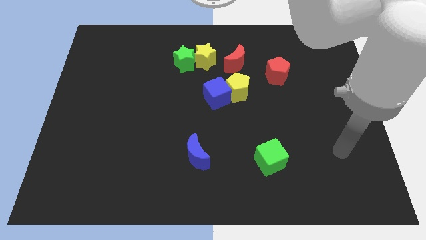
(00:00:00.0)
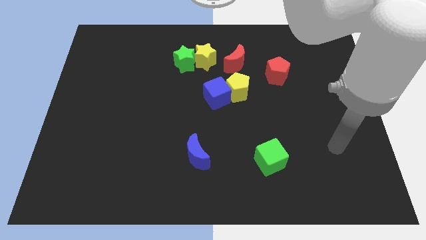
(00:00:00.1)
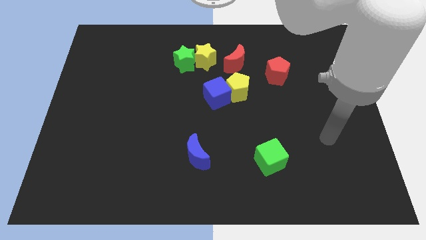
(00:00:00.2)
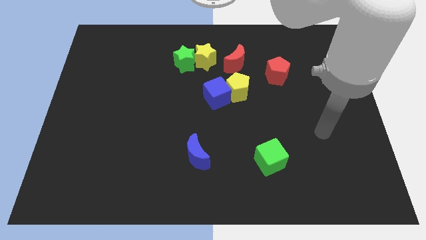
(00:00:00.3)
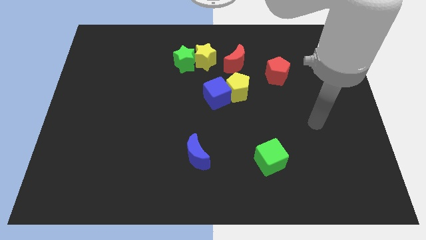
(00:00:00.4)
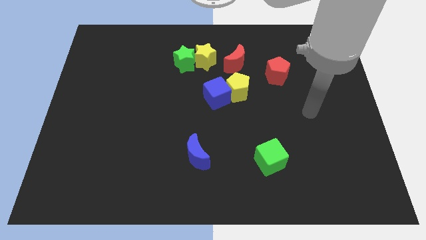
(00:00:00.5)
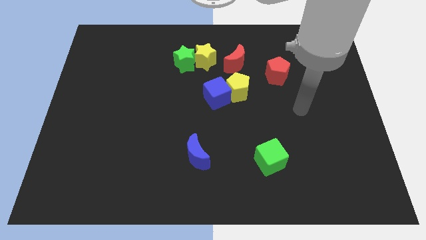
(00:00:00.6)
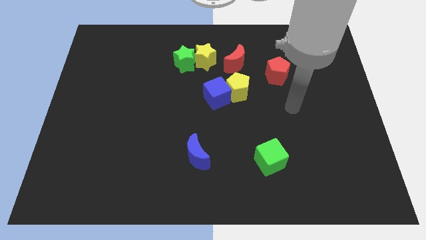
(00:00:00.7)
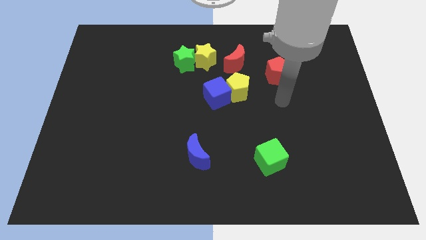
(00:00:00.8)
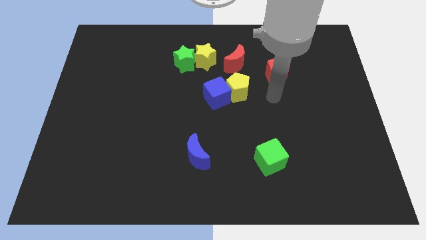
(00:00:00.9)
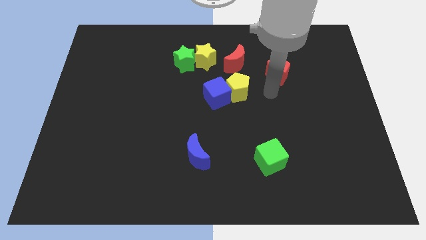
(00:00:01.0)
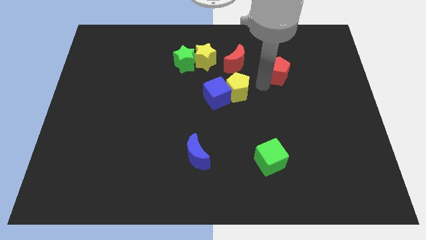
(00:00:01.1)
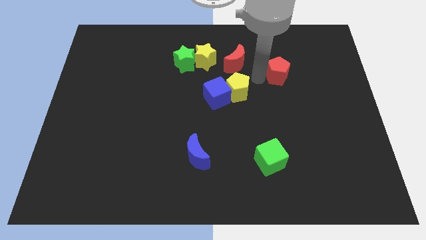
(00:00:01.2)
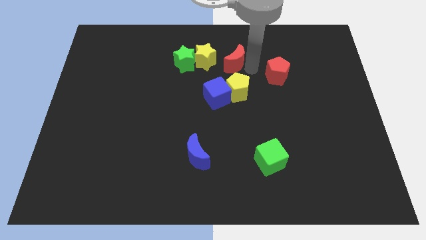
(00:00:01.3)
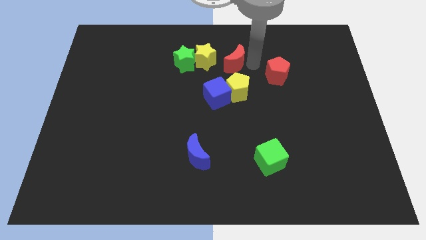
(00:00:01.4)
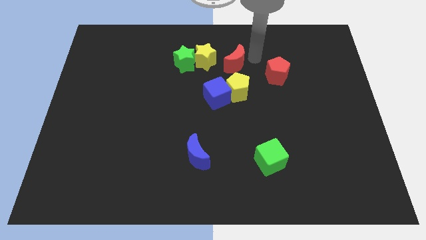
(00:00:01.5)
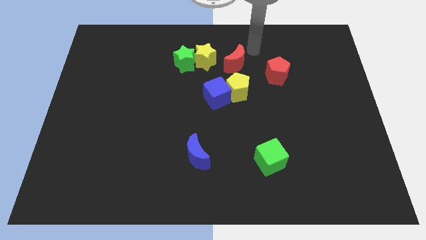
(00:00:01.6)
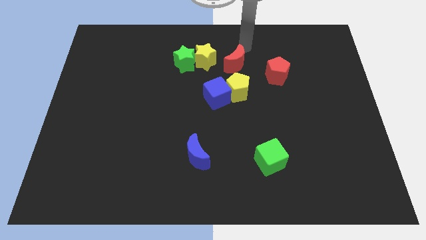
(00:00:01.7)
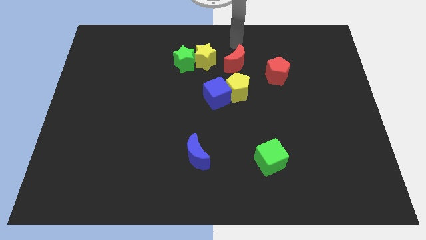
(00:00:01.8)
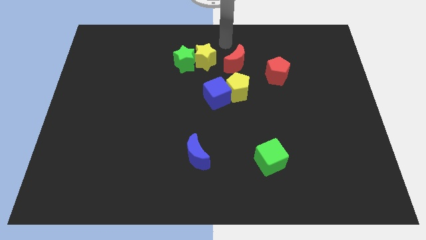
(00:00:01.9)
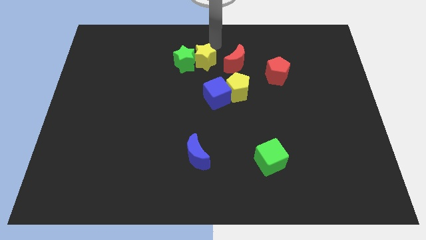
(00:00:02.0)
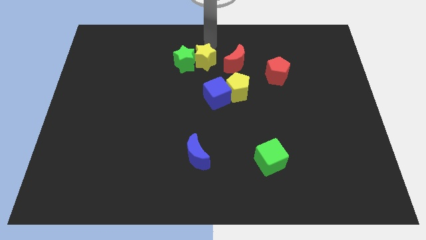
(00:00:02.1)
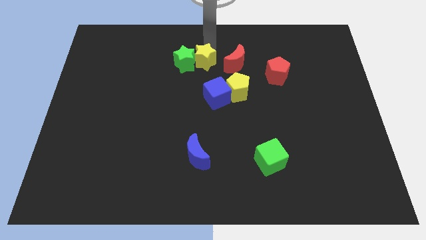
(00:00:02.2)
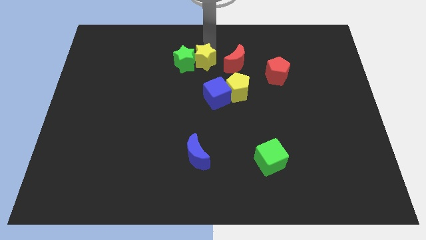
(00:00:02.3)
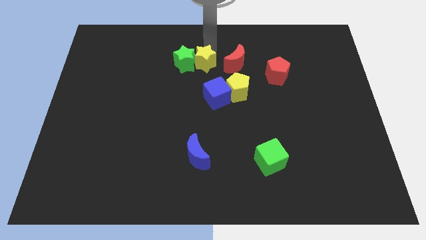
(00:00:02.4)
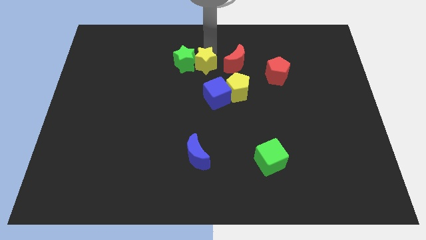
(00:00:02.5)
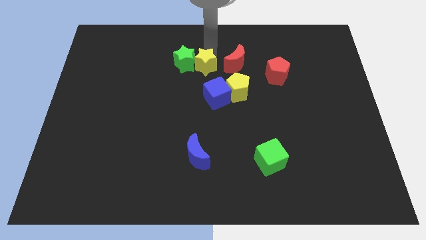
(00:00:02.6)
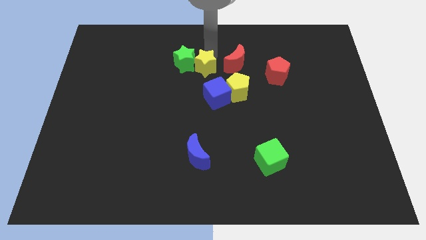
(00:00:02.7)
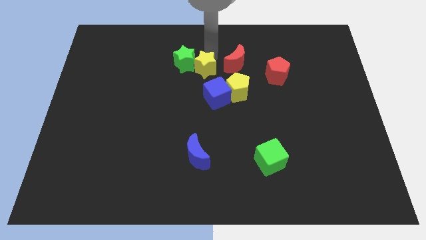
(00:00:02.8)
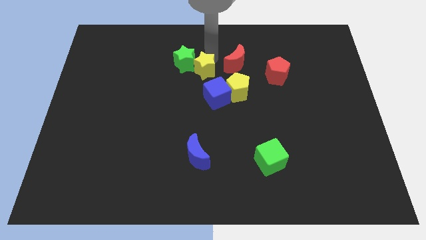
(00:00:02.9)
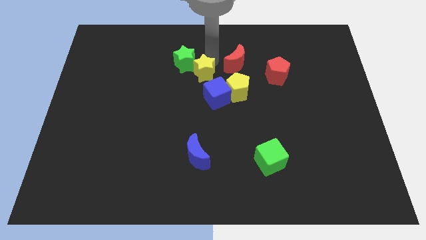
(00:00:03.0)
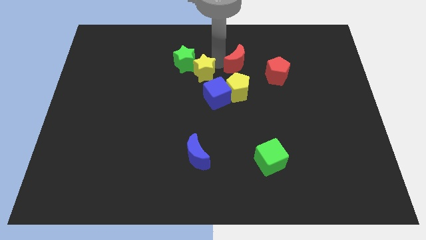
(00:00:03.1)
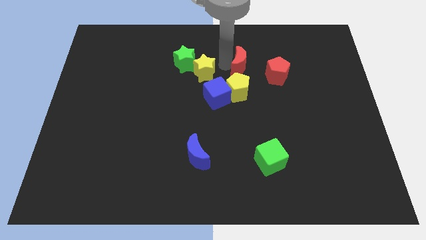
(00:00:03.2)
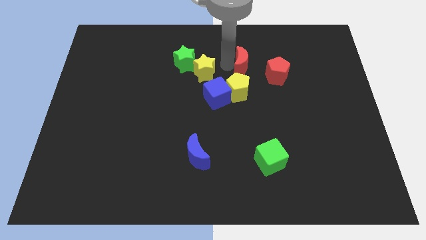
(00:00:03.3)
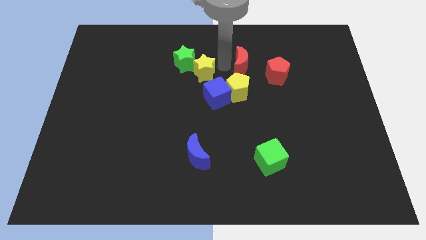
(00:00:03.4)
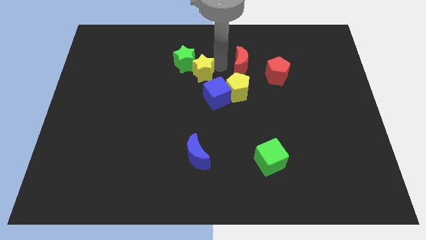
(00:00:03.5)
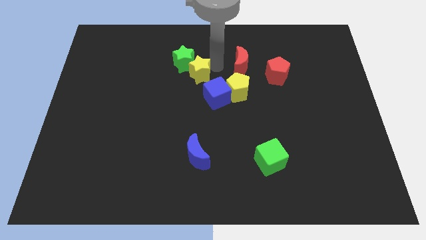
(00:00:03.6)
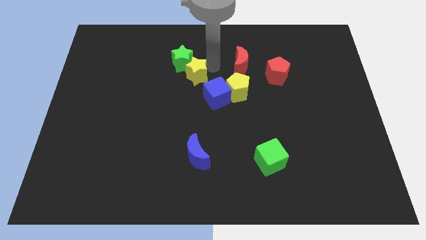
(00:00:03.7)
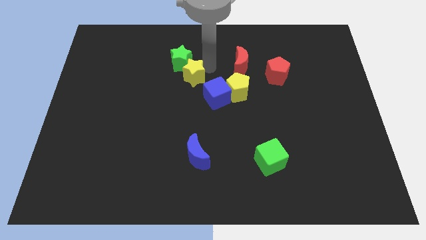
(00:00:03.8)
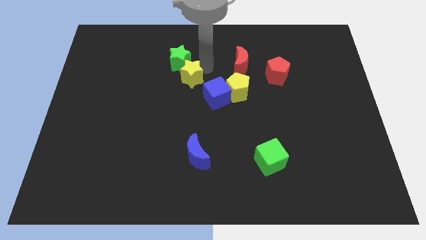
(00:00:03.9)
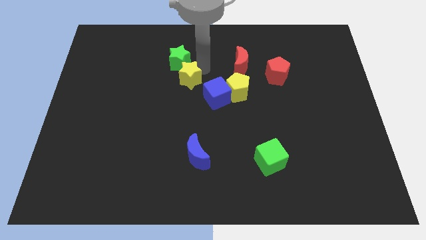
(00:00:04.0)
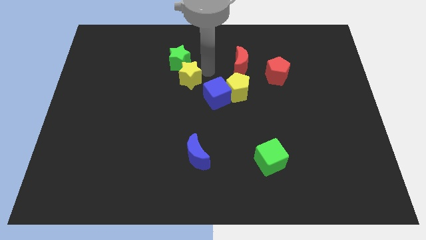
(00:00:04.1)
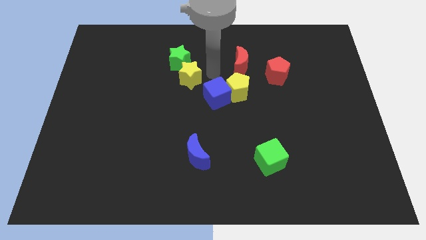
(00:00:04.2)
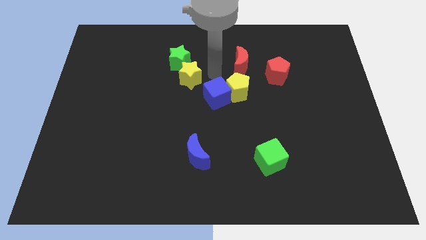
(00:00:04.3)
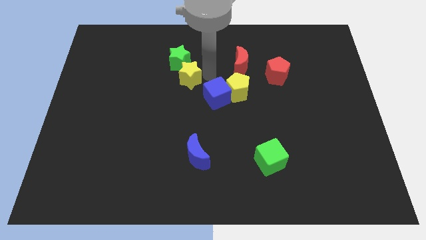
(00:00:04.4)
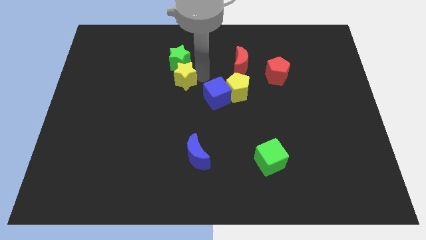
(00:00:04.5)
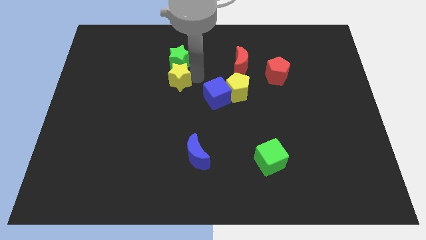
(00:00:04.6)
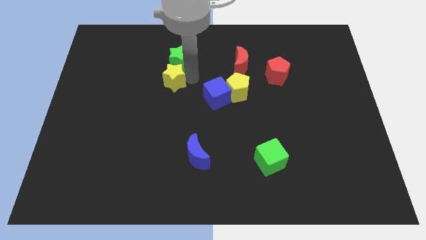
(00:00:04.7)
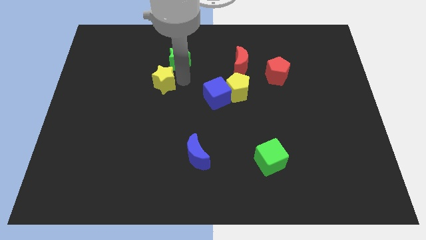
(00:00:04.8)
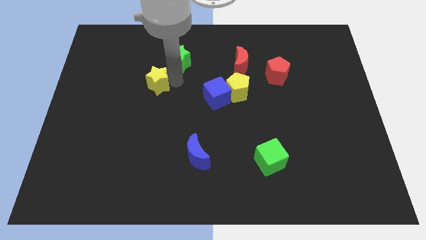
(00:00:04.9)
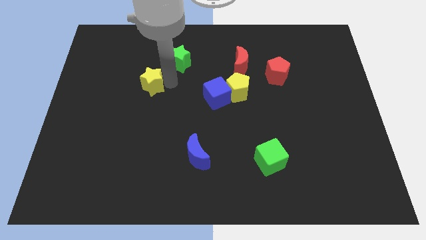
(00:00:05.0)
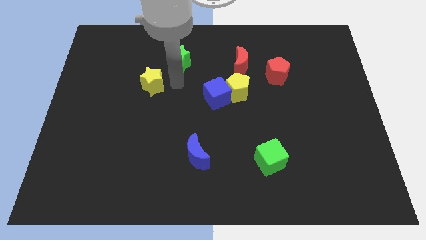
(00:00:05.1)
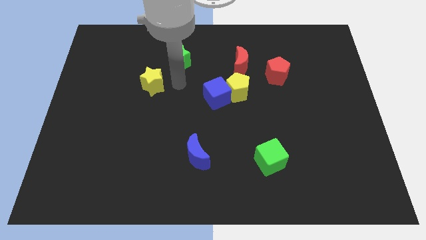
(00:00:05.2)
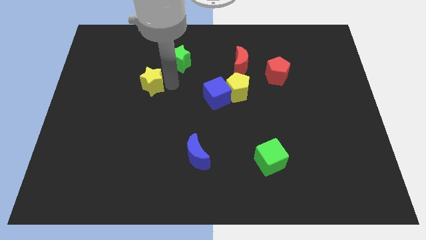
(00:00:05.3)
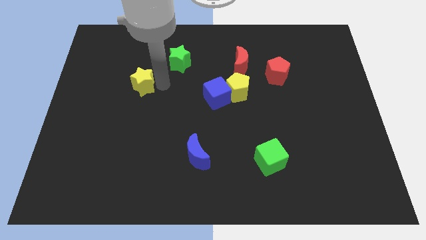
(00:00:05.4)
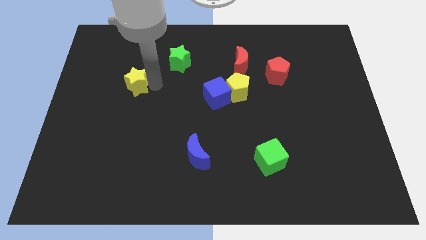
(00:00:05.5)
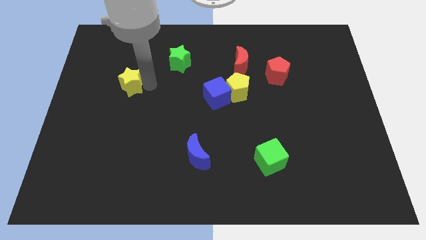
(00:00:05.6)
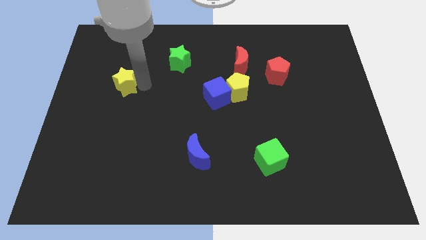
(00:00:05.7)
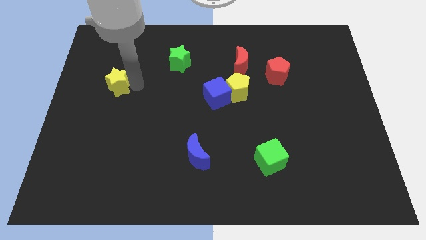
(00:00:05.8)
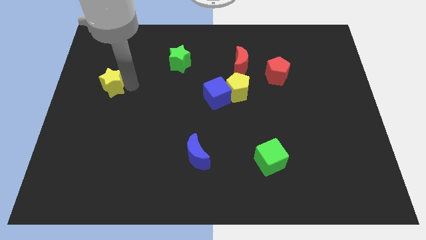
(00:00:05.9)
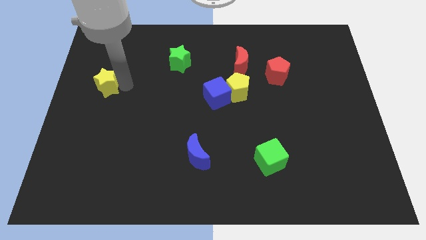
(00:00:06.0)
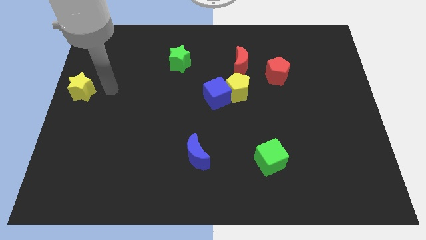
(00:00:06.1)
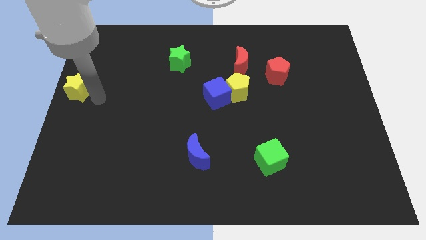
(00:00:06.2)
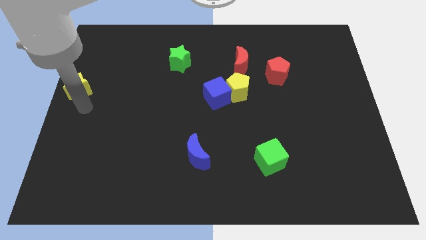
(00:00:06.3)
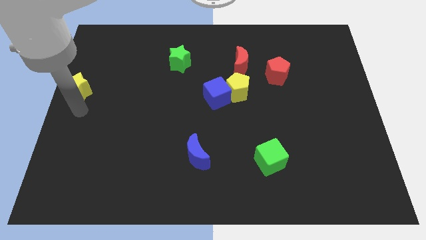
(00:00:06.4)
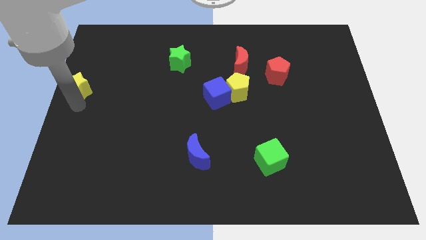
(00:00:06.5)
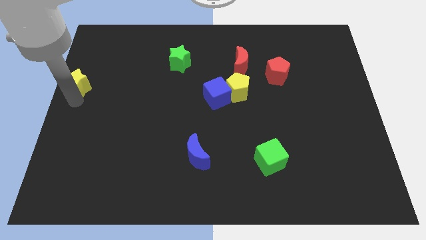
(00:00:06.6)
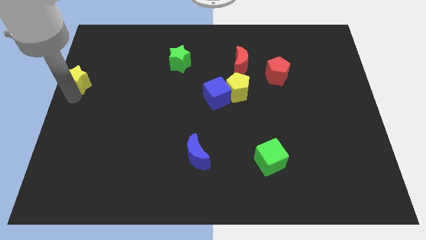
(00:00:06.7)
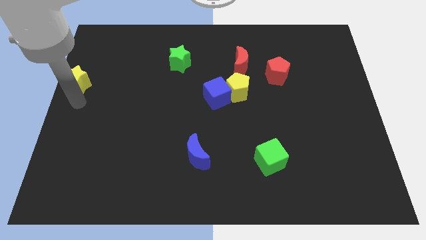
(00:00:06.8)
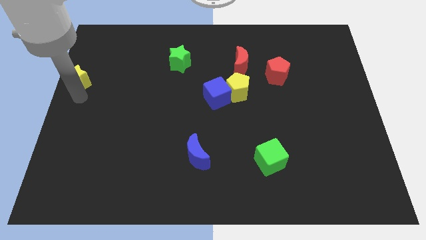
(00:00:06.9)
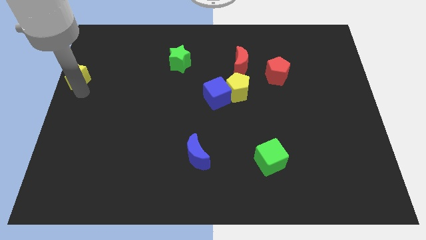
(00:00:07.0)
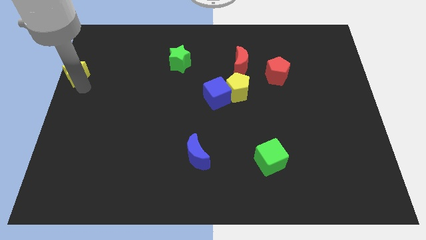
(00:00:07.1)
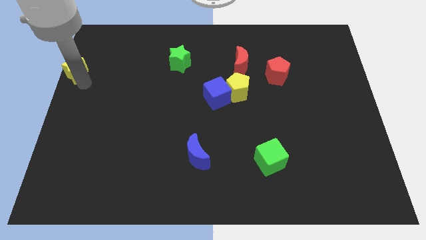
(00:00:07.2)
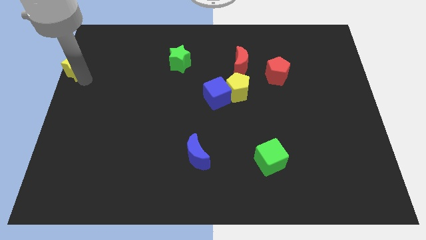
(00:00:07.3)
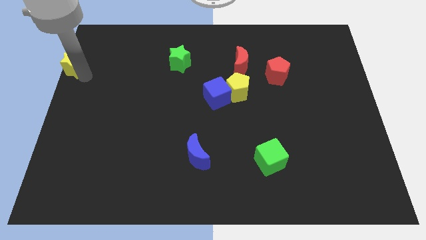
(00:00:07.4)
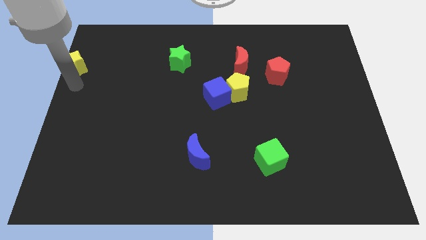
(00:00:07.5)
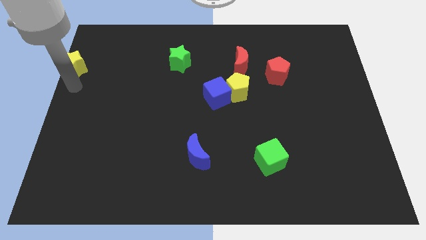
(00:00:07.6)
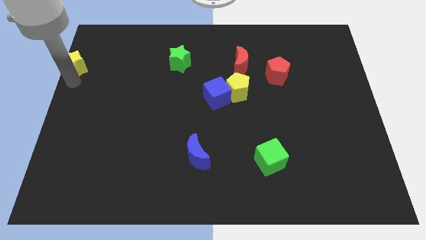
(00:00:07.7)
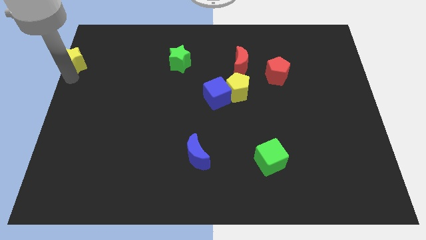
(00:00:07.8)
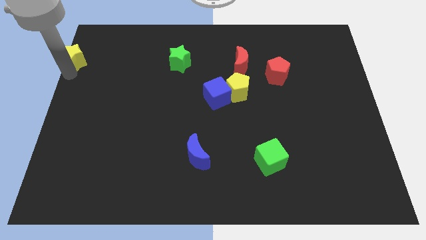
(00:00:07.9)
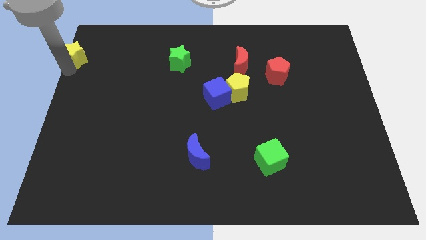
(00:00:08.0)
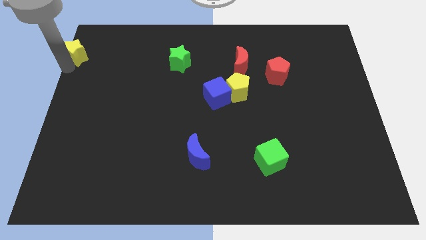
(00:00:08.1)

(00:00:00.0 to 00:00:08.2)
move the yellow star to the top left
